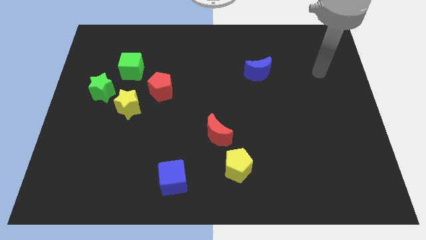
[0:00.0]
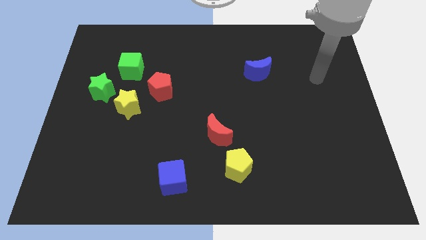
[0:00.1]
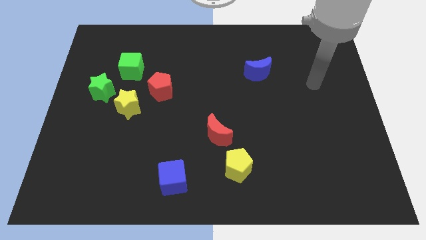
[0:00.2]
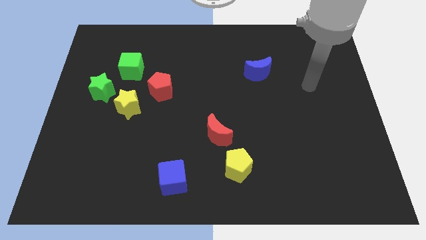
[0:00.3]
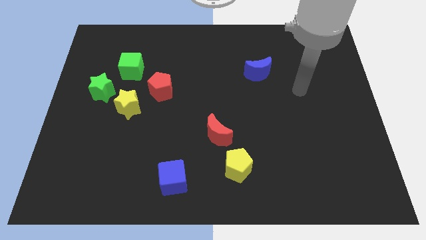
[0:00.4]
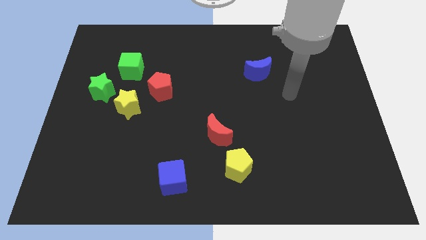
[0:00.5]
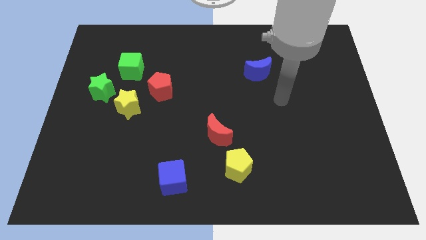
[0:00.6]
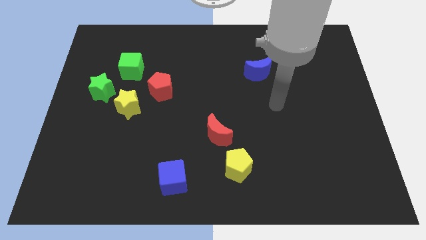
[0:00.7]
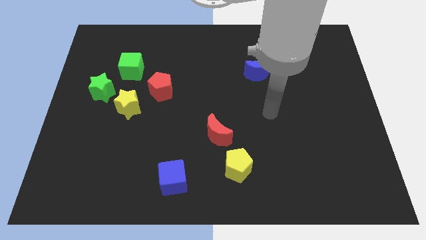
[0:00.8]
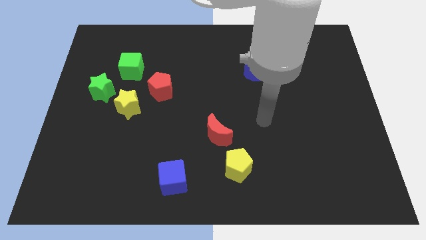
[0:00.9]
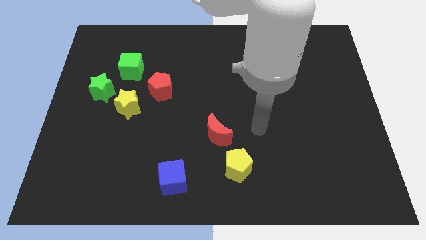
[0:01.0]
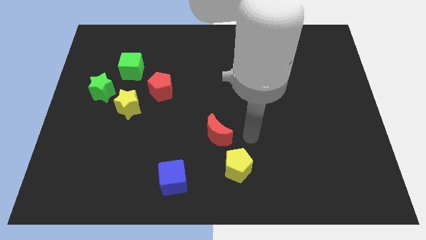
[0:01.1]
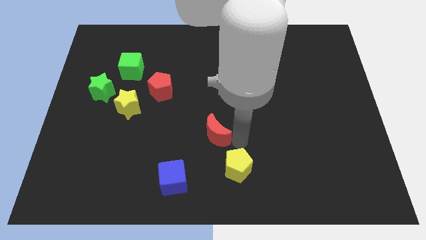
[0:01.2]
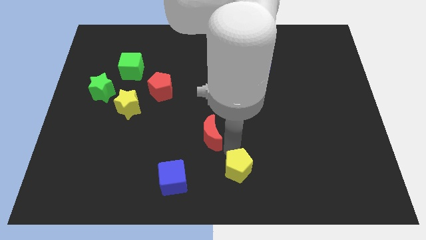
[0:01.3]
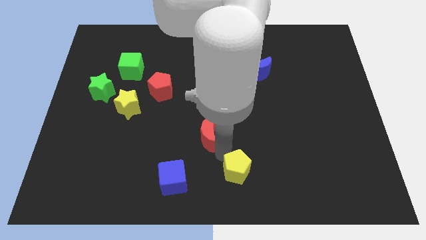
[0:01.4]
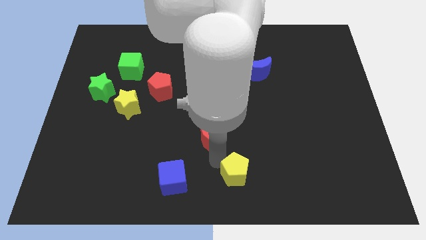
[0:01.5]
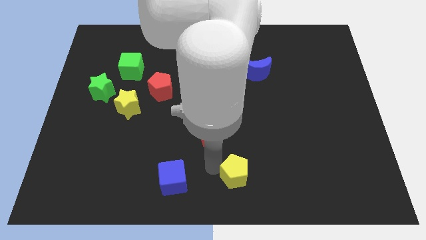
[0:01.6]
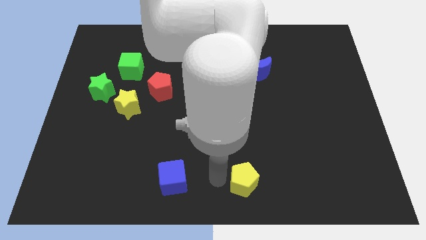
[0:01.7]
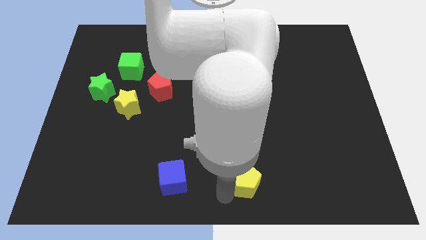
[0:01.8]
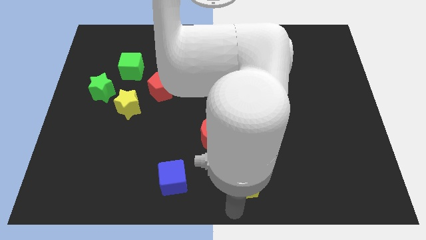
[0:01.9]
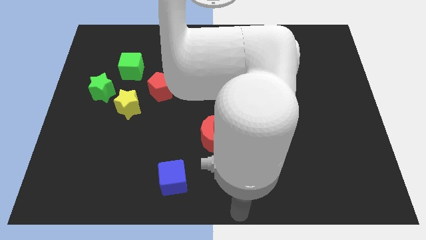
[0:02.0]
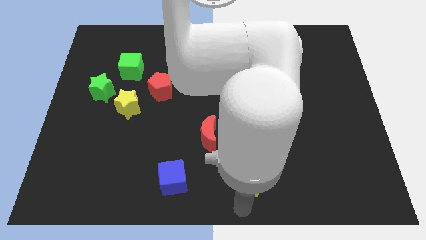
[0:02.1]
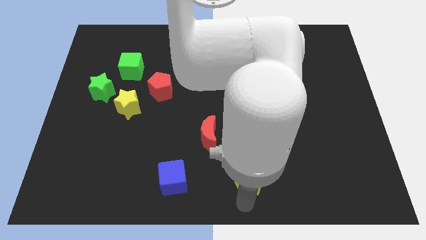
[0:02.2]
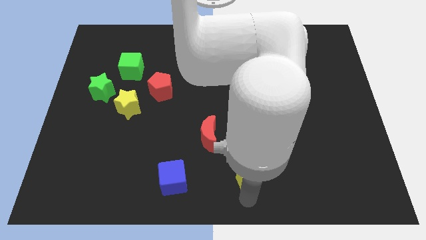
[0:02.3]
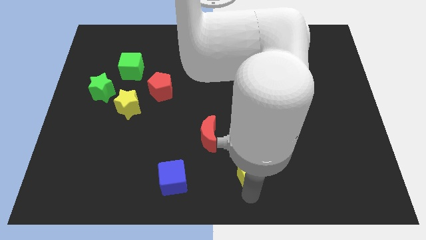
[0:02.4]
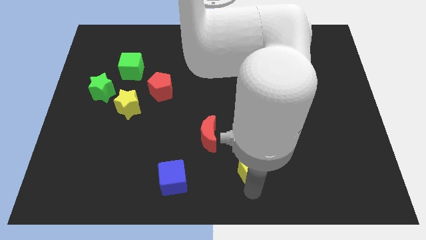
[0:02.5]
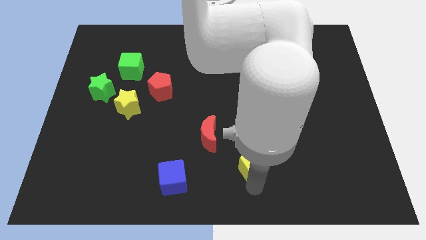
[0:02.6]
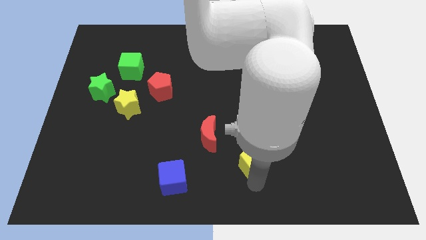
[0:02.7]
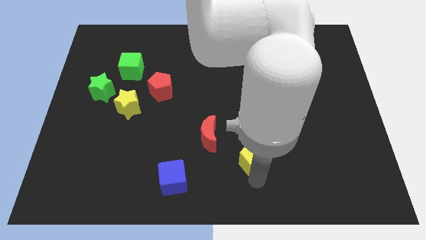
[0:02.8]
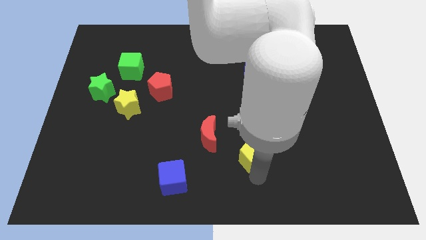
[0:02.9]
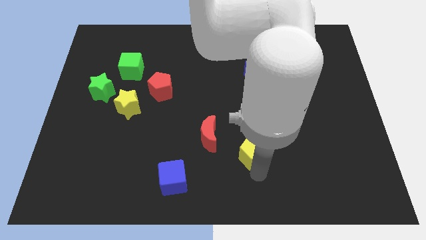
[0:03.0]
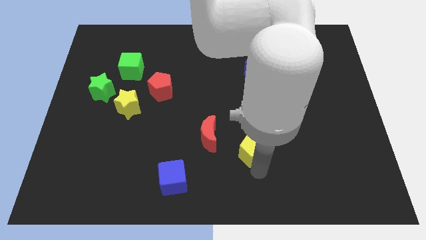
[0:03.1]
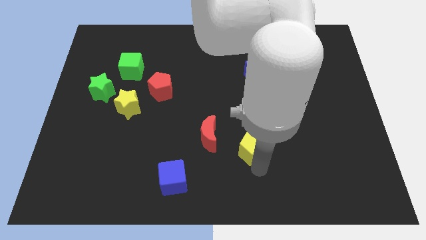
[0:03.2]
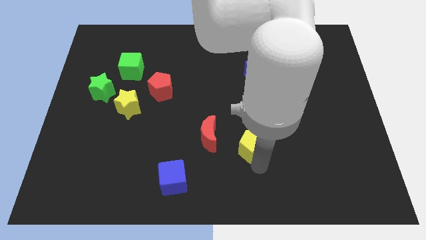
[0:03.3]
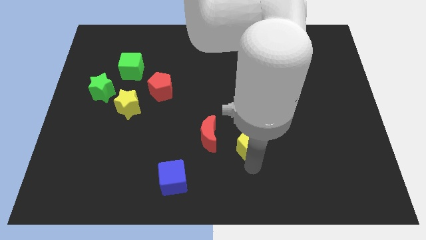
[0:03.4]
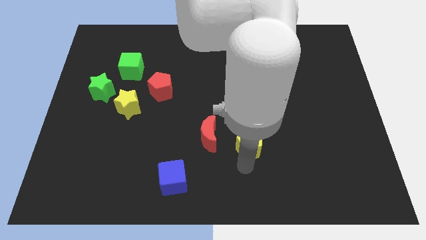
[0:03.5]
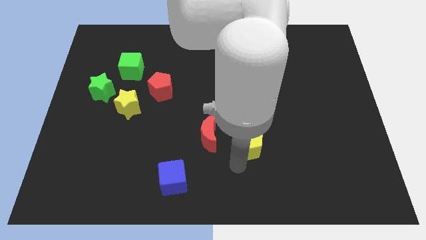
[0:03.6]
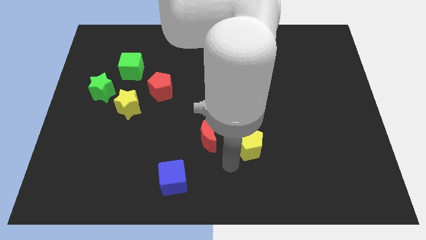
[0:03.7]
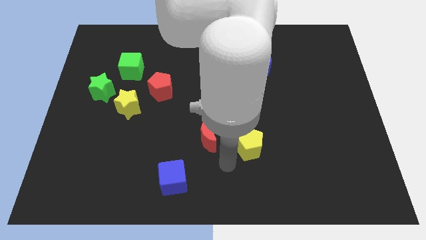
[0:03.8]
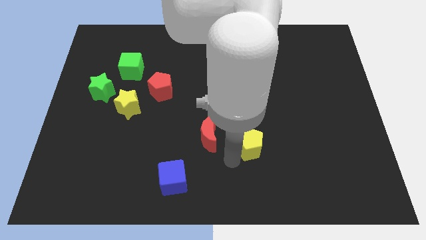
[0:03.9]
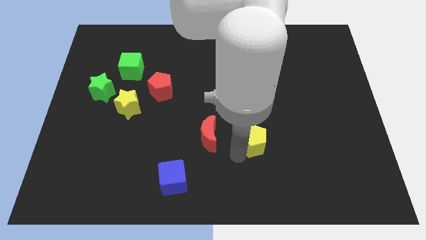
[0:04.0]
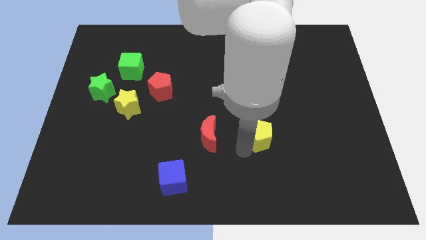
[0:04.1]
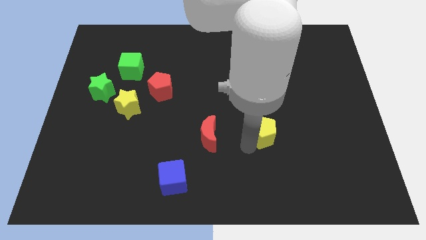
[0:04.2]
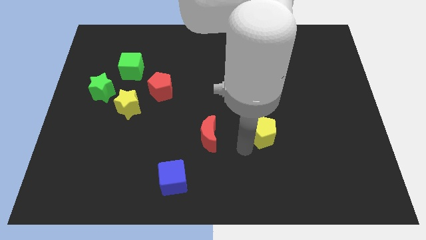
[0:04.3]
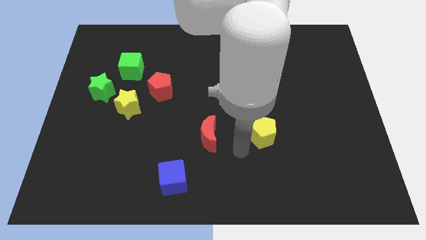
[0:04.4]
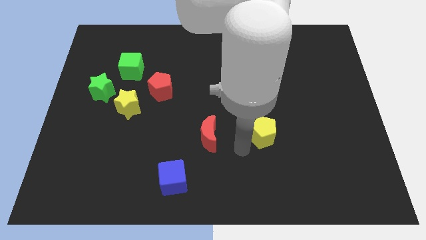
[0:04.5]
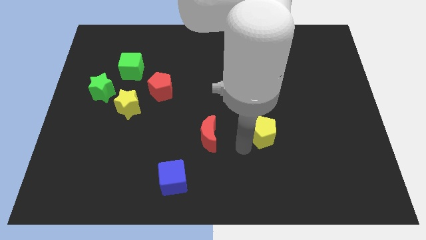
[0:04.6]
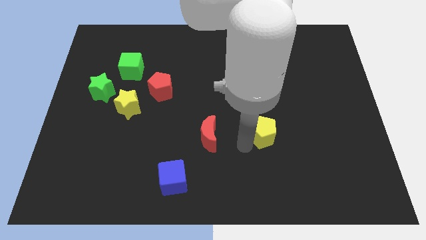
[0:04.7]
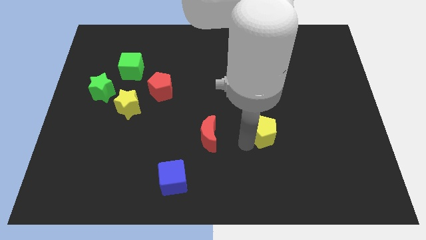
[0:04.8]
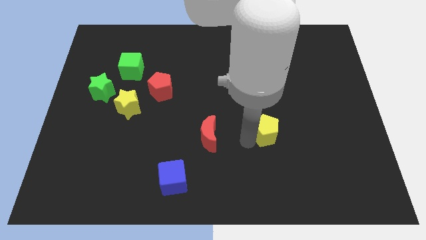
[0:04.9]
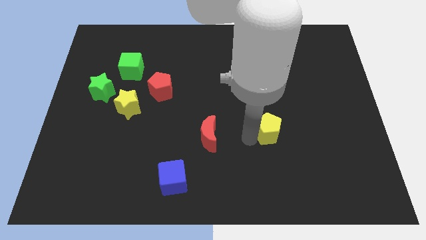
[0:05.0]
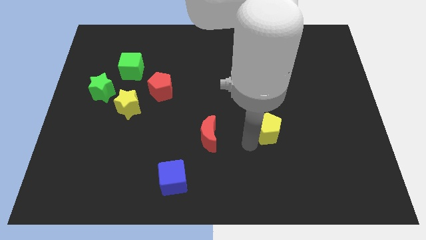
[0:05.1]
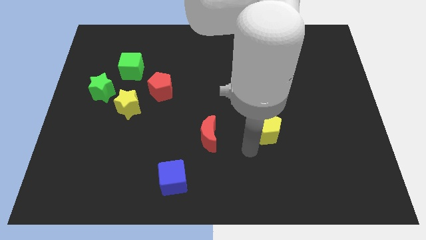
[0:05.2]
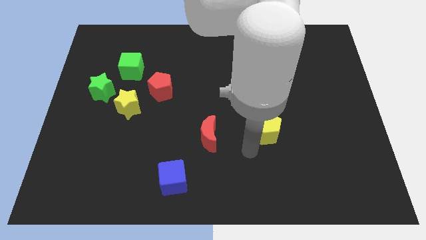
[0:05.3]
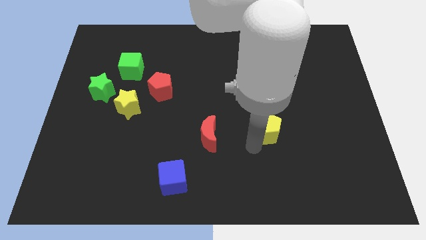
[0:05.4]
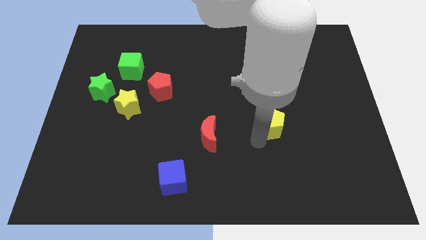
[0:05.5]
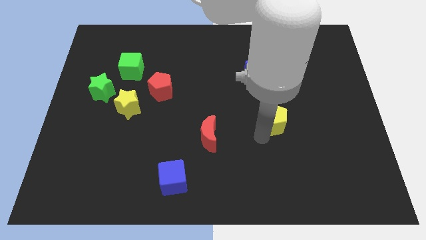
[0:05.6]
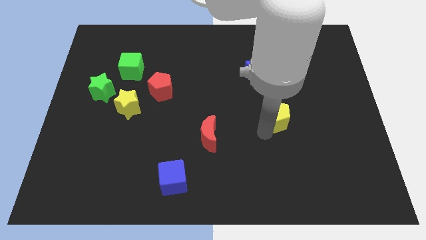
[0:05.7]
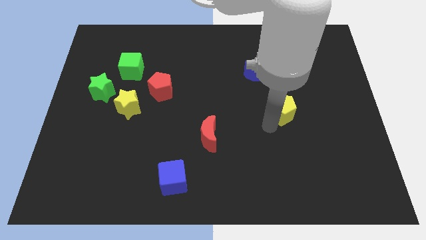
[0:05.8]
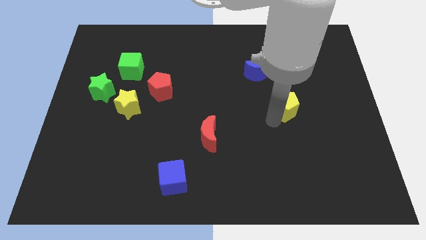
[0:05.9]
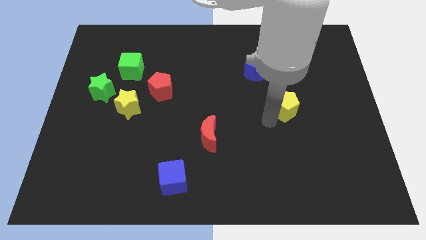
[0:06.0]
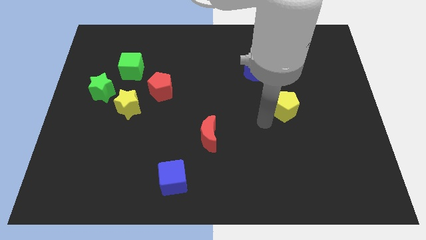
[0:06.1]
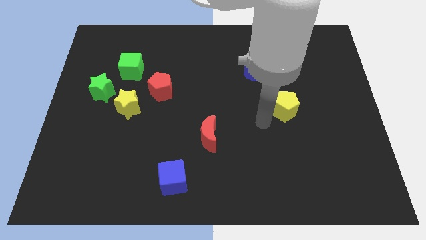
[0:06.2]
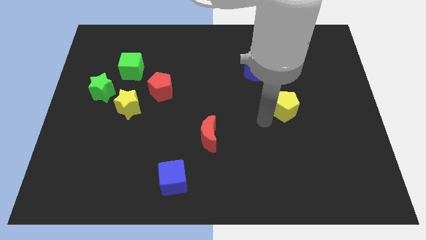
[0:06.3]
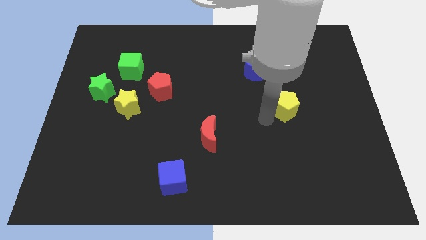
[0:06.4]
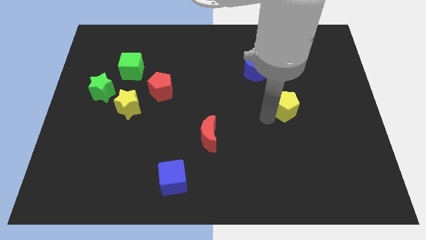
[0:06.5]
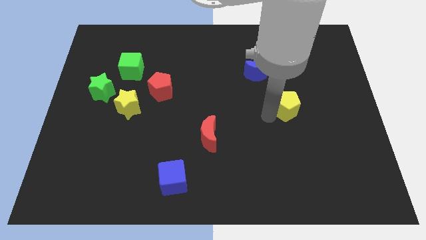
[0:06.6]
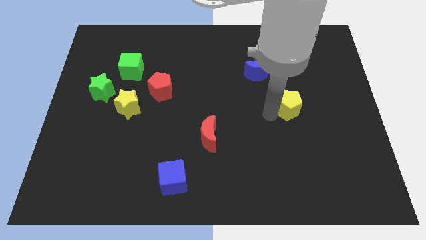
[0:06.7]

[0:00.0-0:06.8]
slide the yellow pentagon upwards and then right

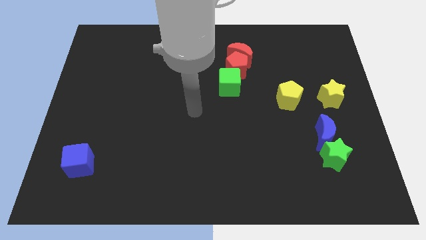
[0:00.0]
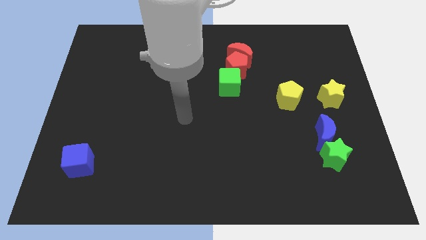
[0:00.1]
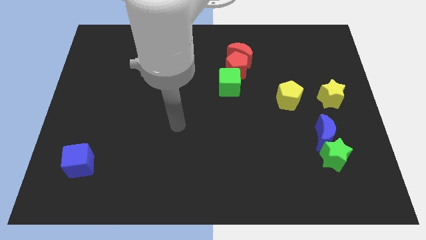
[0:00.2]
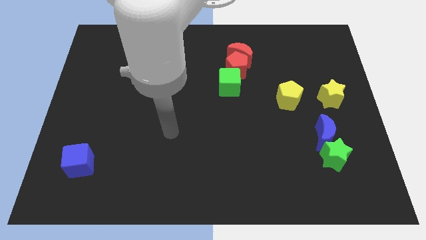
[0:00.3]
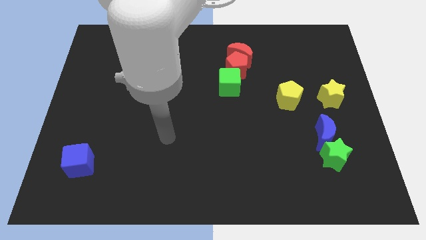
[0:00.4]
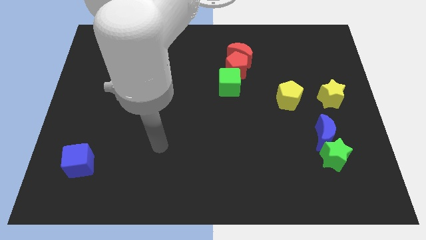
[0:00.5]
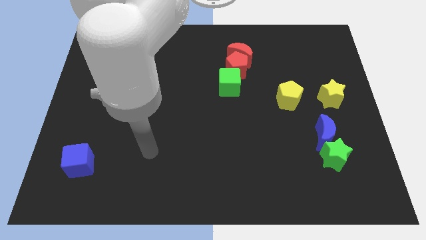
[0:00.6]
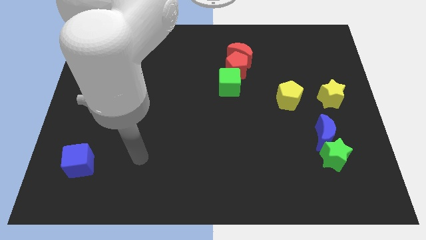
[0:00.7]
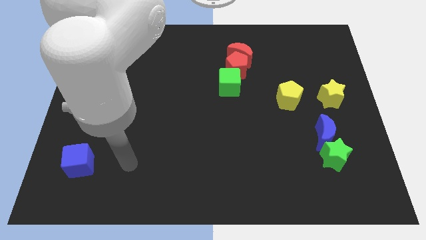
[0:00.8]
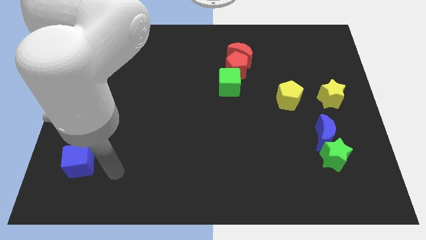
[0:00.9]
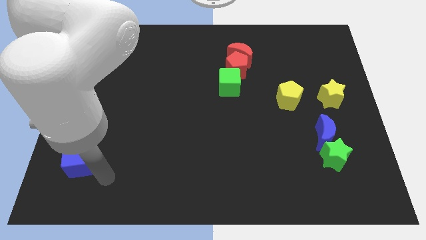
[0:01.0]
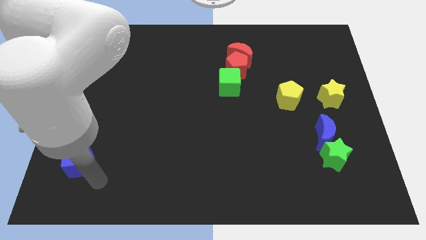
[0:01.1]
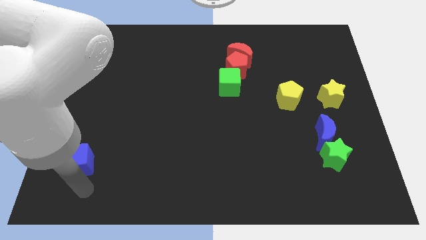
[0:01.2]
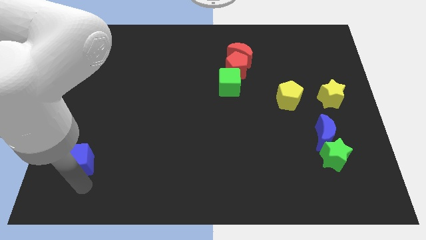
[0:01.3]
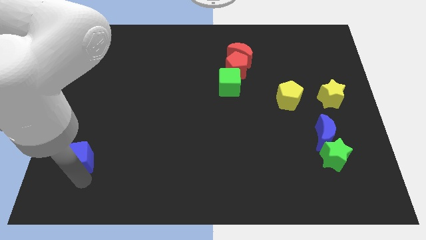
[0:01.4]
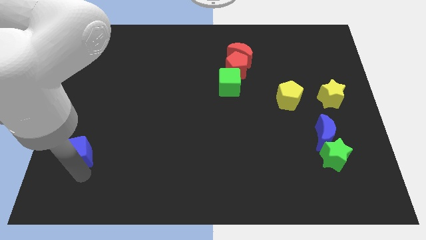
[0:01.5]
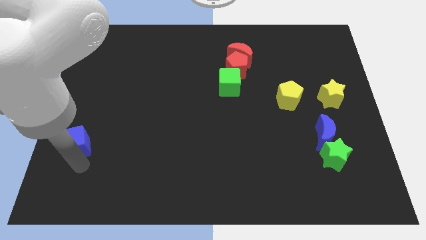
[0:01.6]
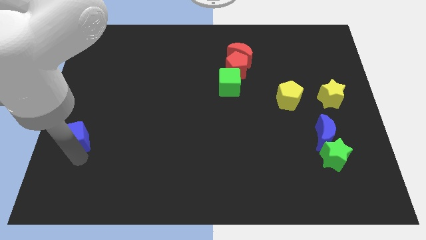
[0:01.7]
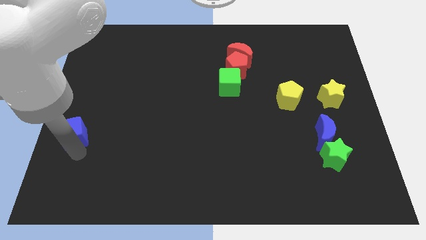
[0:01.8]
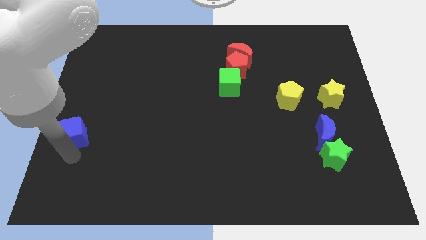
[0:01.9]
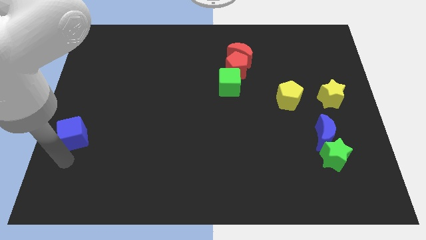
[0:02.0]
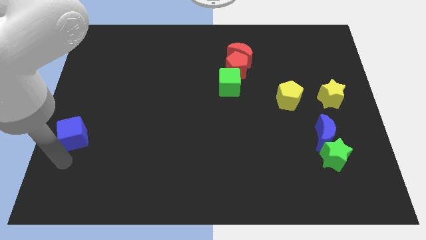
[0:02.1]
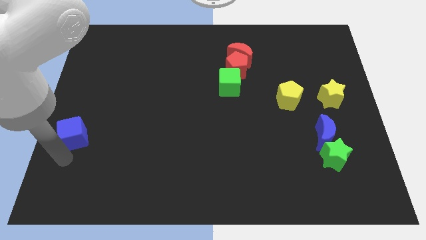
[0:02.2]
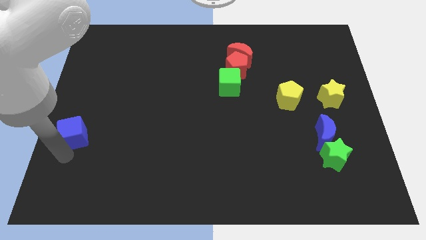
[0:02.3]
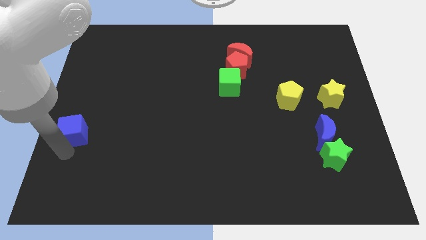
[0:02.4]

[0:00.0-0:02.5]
move the blue cube up a bit
